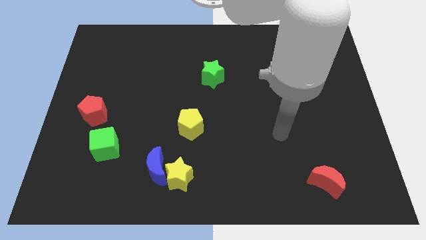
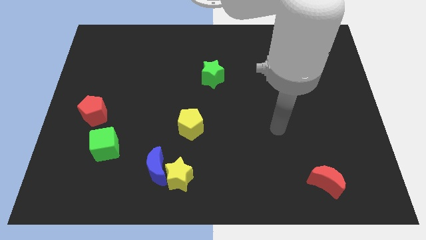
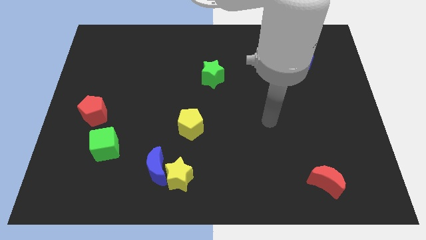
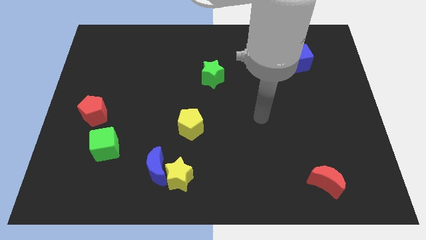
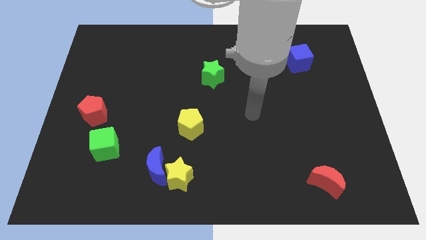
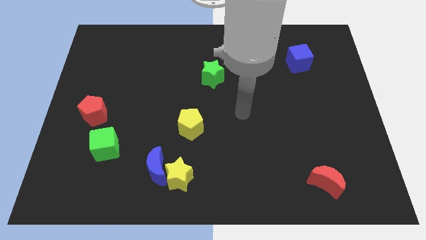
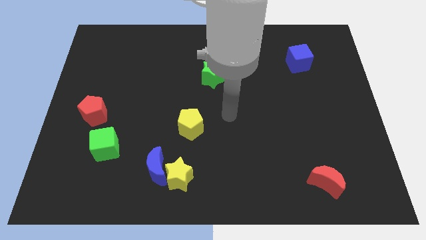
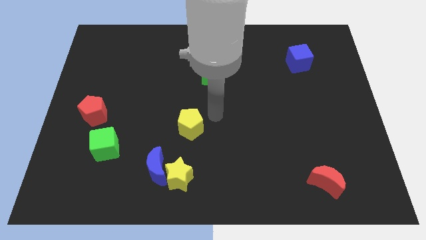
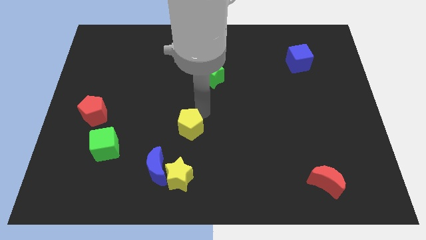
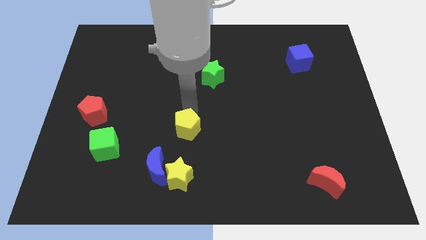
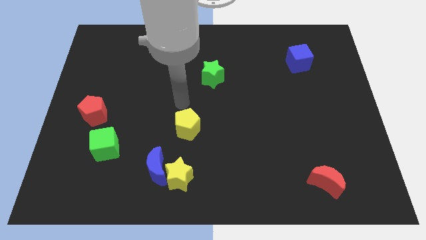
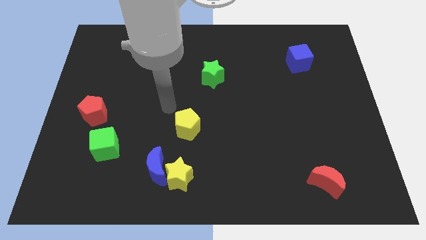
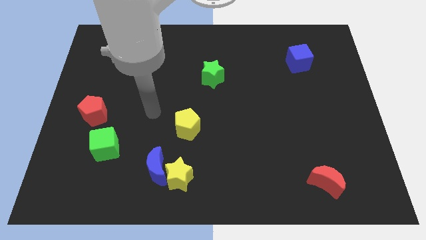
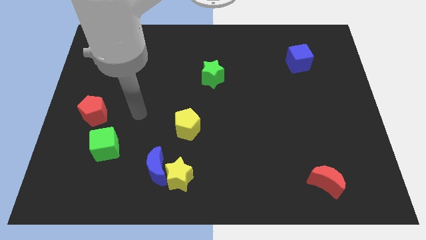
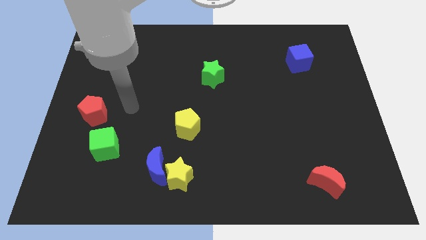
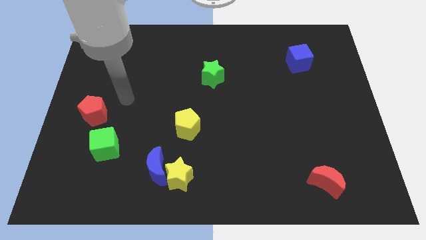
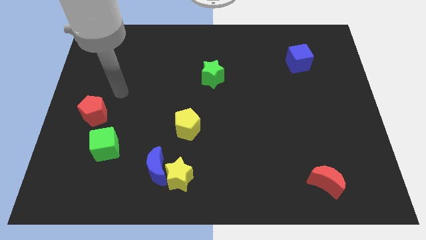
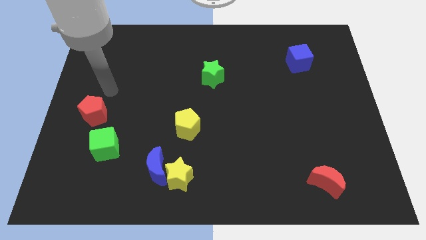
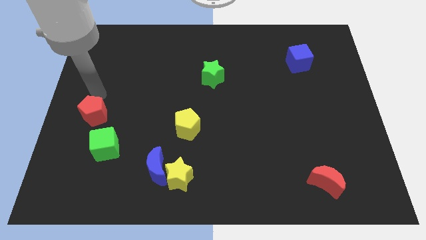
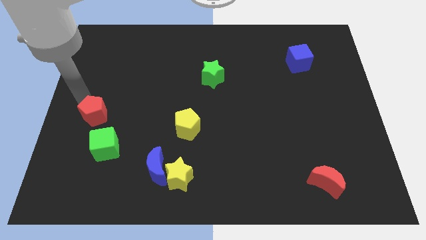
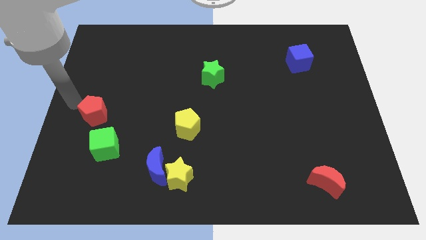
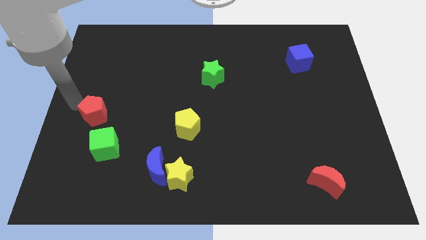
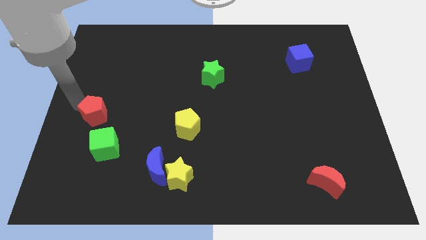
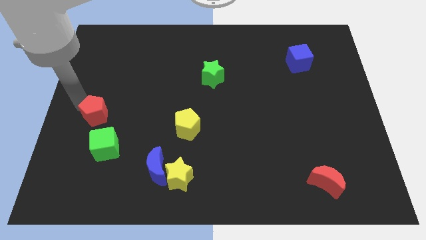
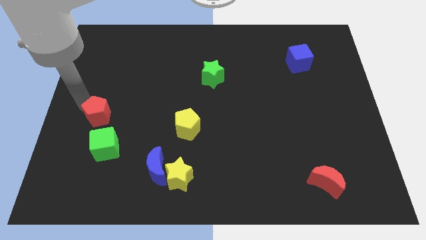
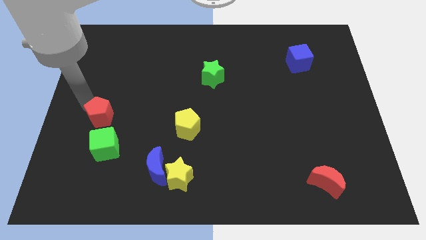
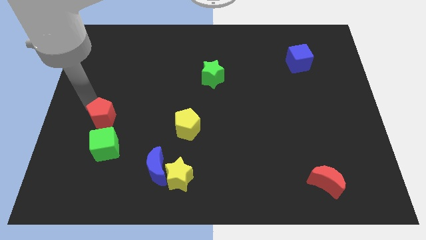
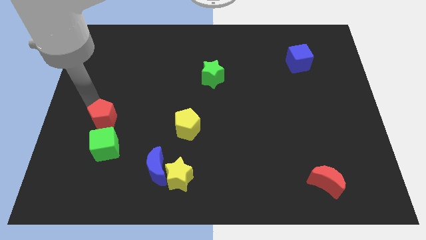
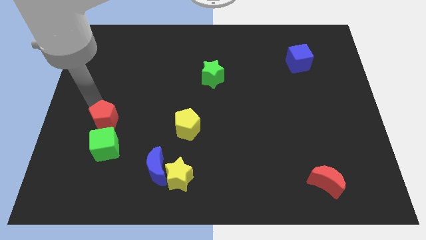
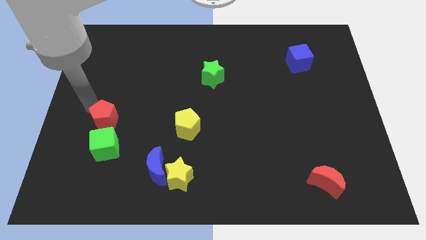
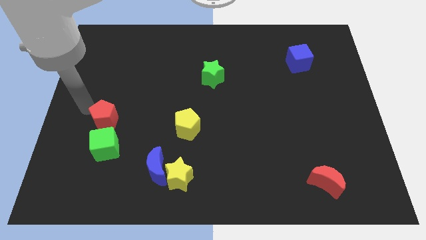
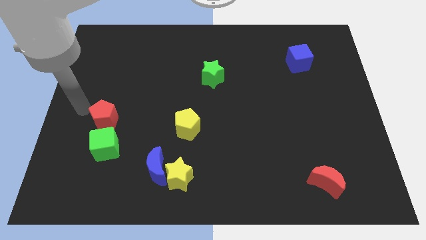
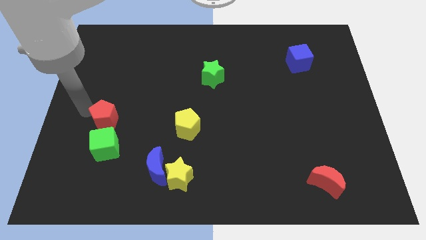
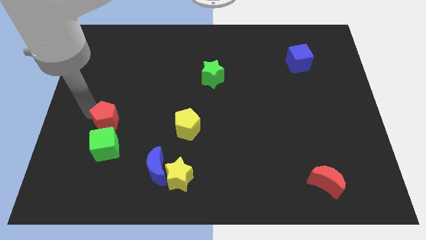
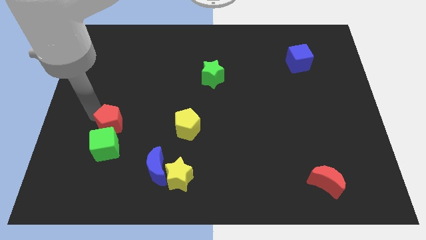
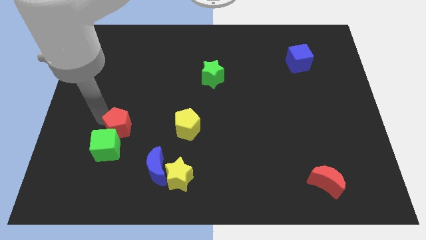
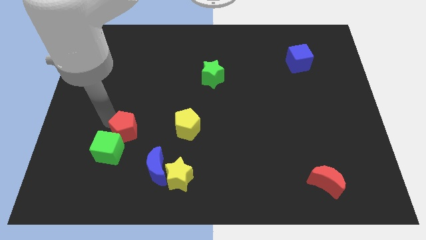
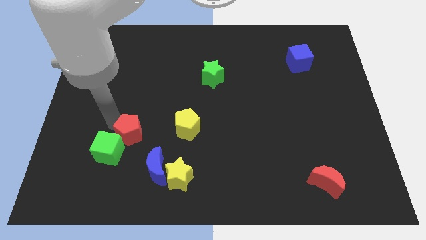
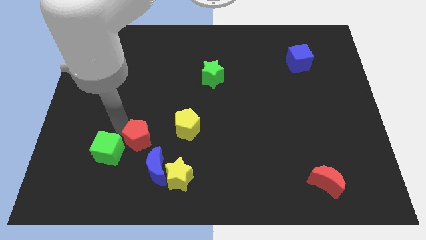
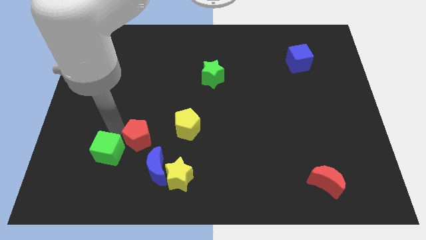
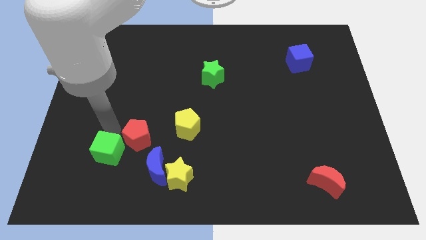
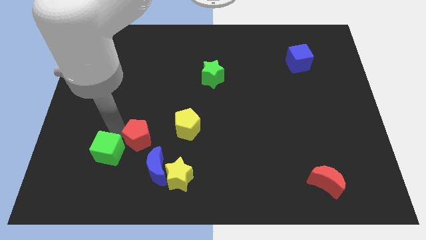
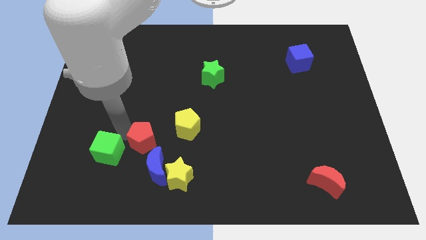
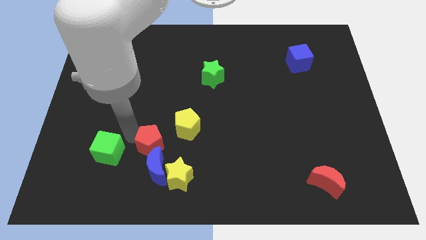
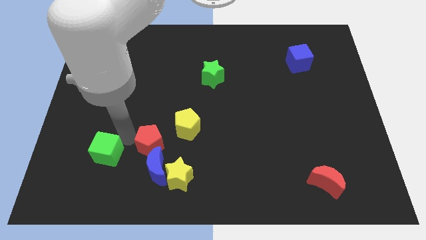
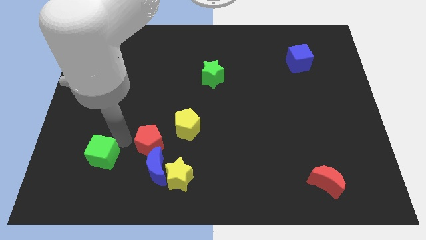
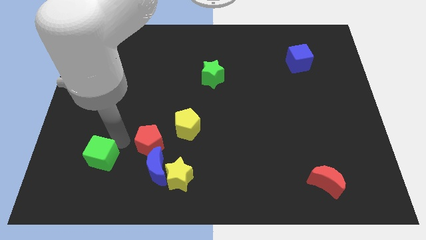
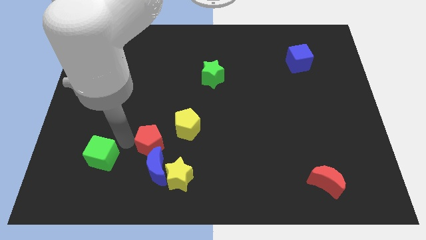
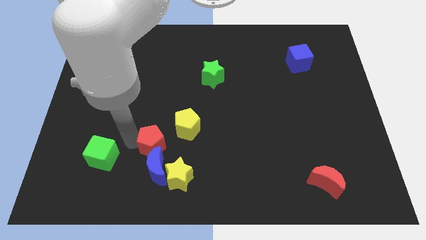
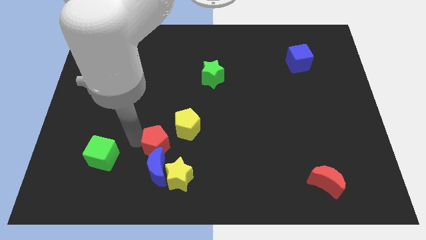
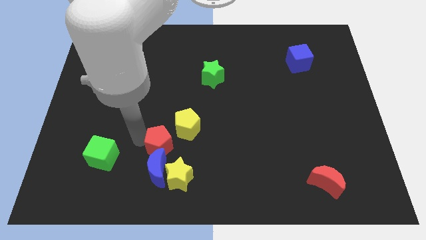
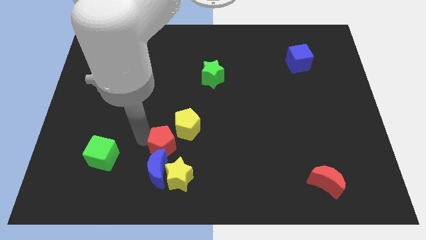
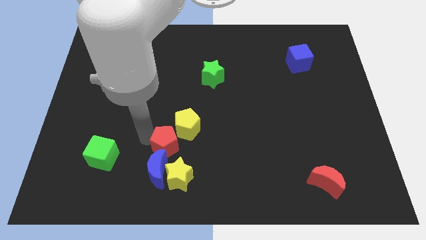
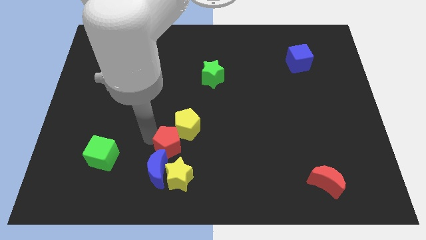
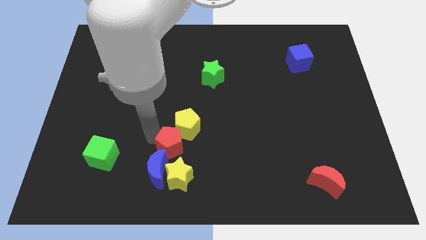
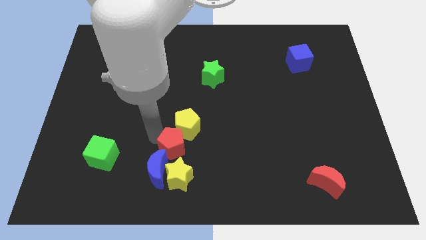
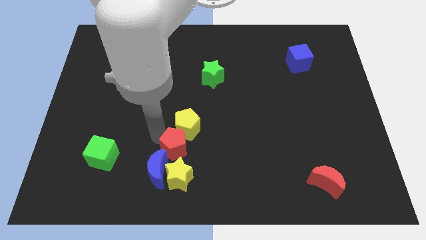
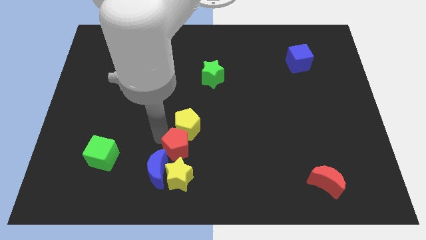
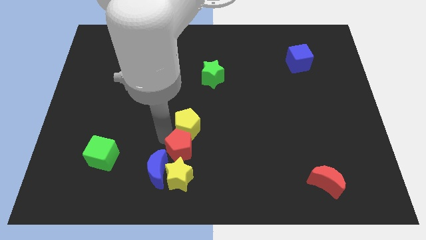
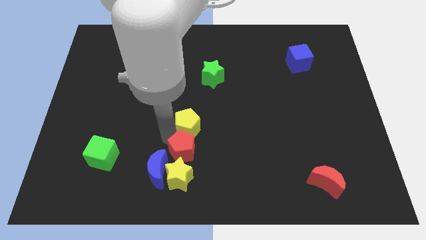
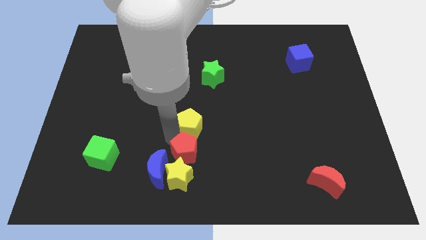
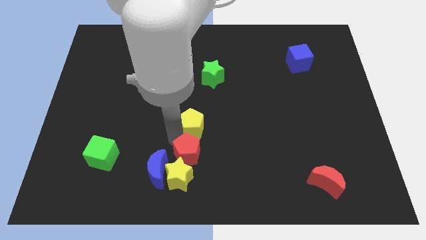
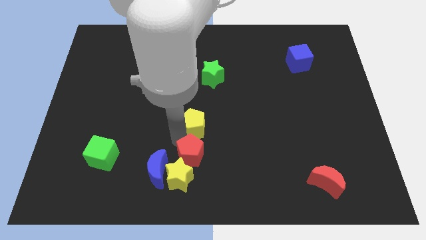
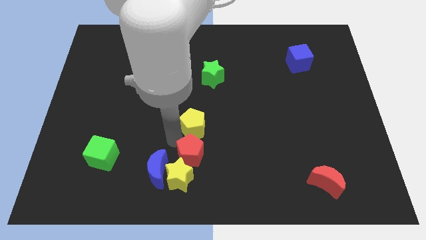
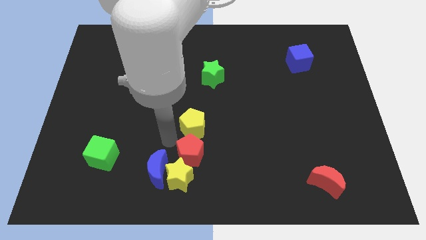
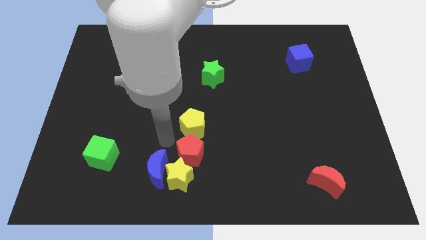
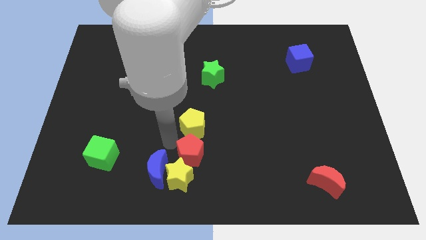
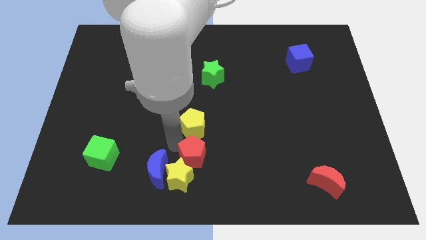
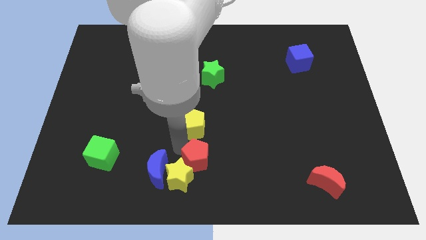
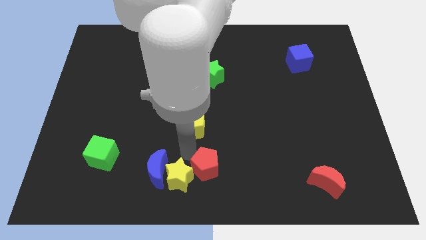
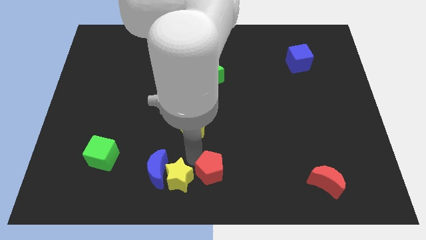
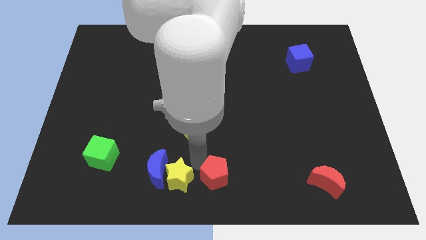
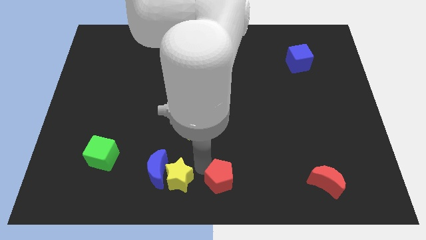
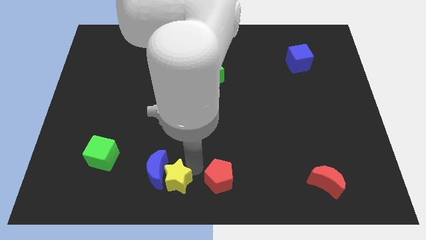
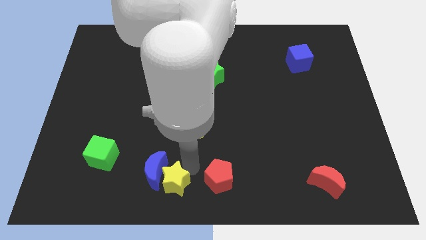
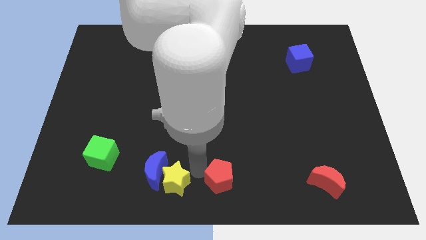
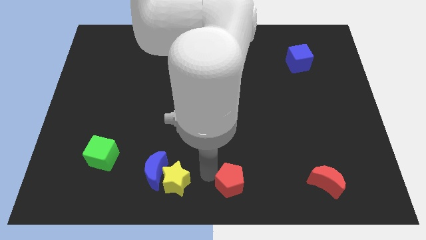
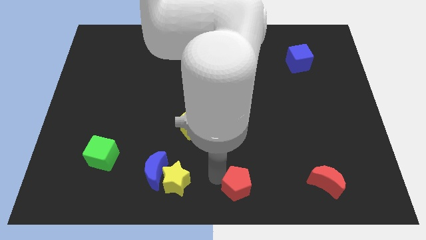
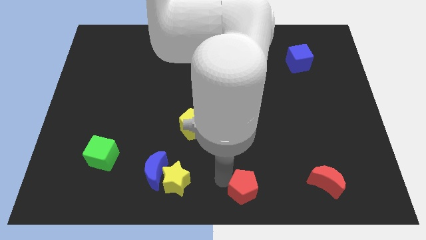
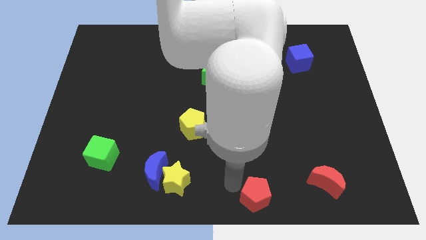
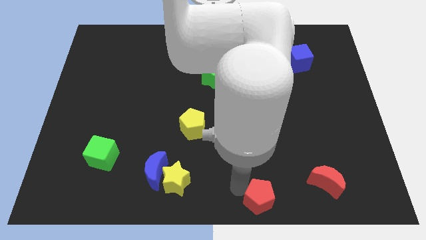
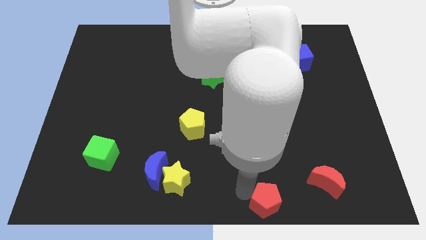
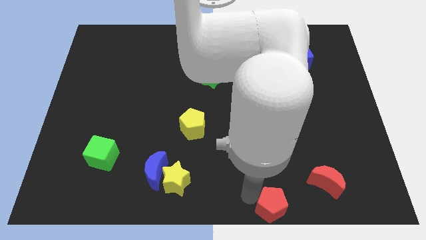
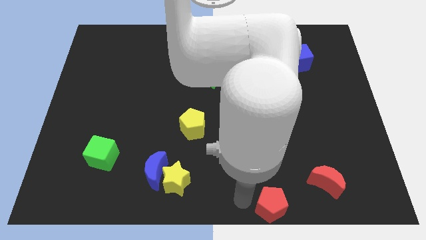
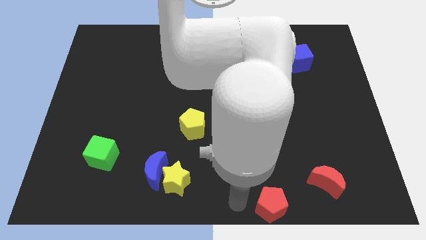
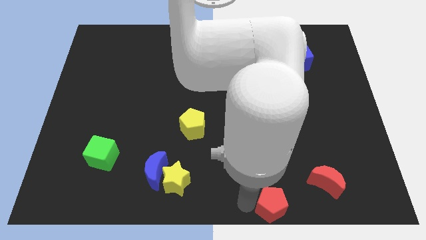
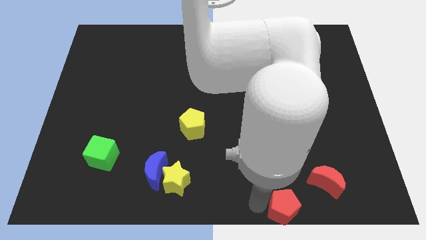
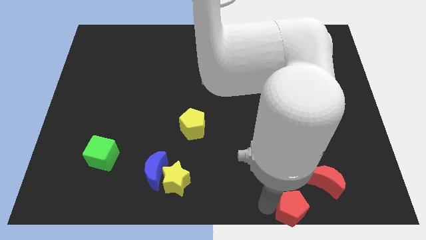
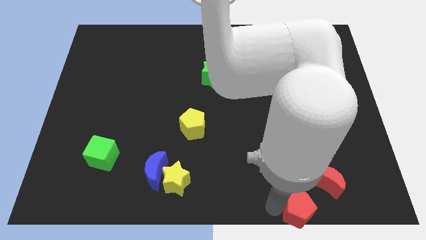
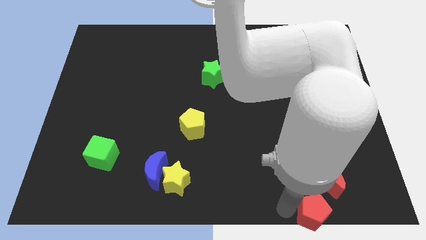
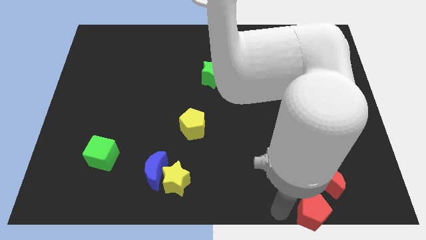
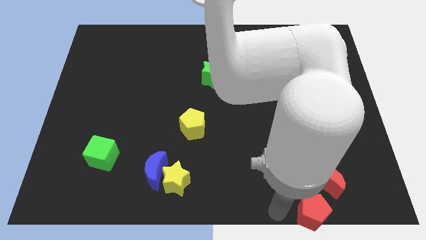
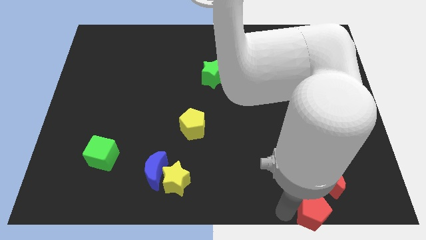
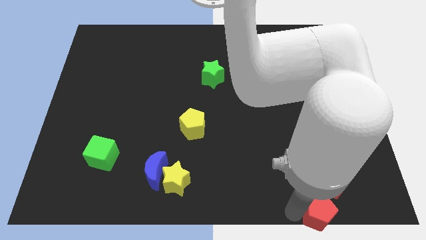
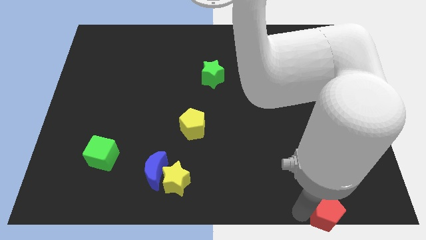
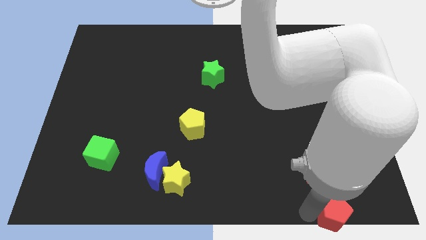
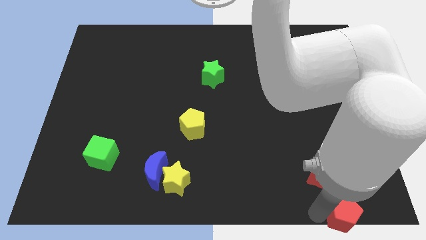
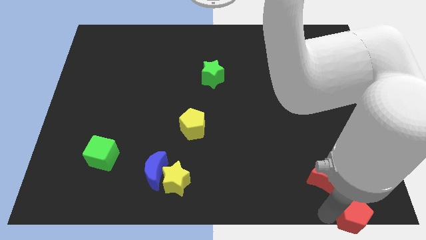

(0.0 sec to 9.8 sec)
slide the red pentagon to the bottom right
